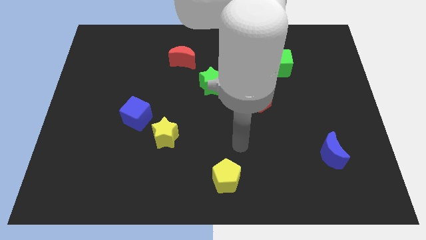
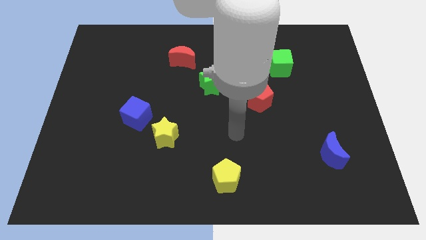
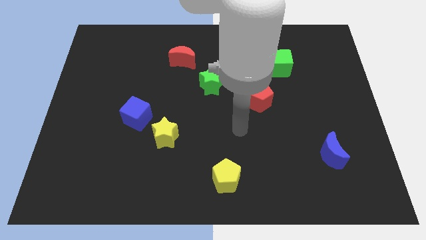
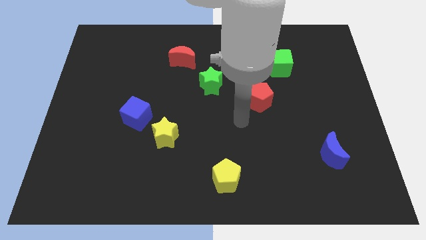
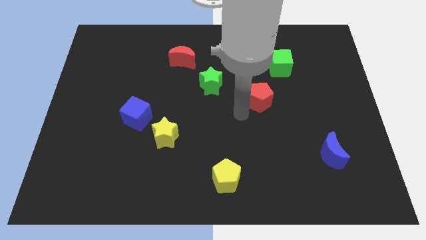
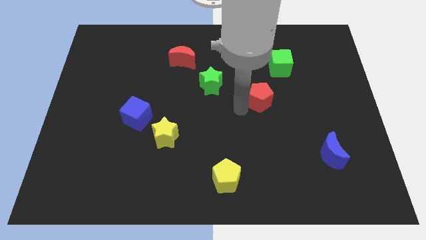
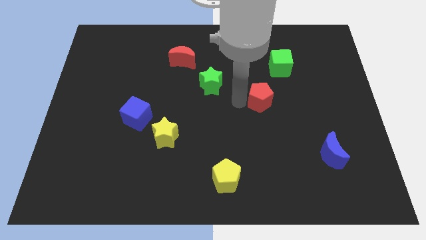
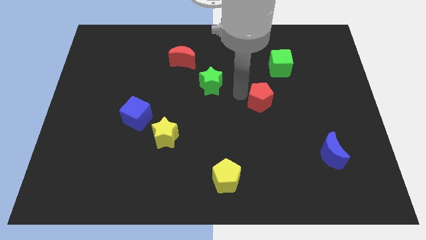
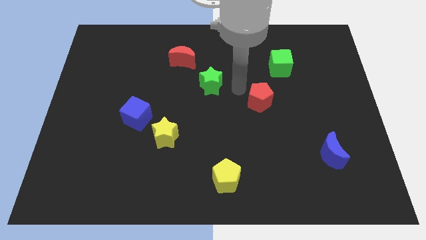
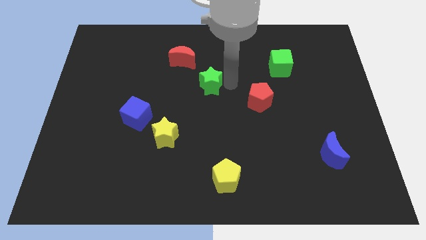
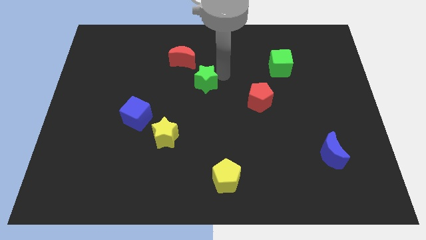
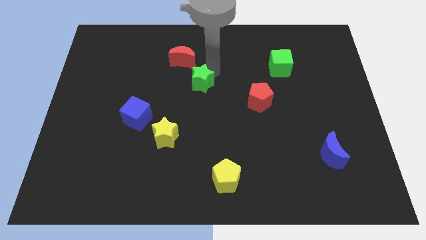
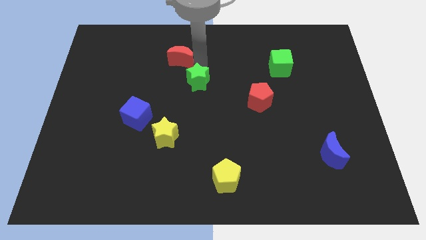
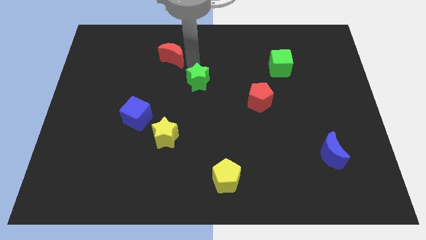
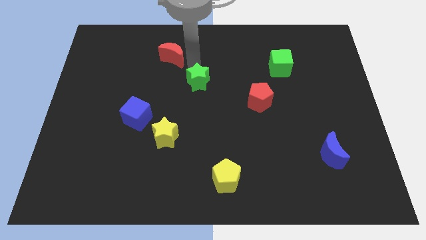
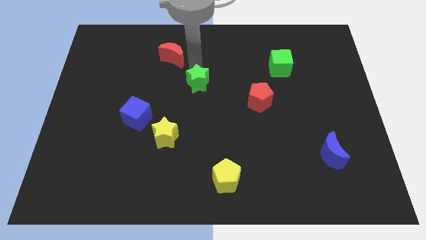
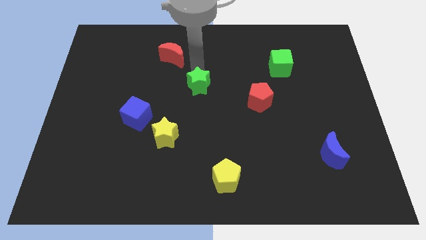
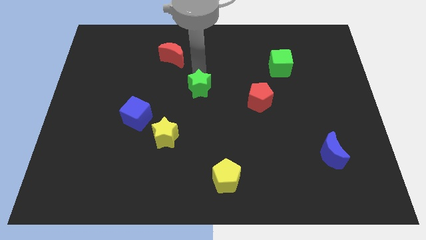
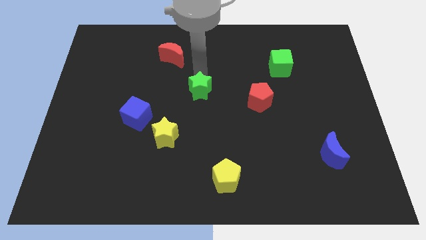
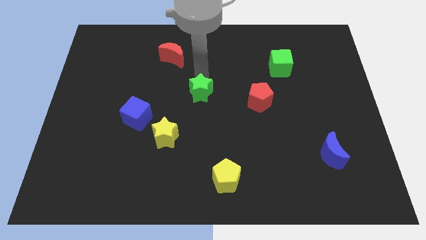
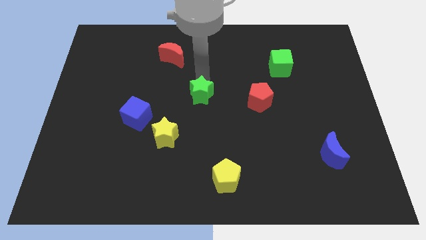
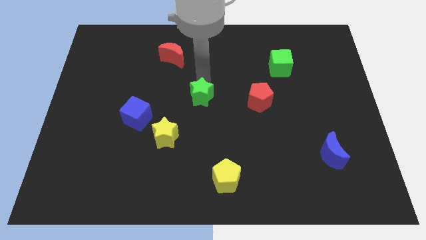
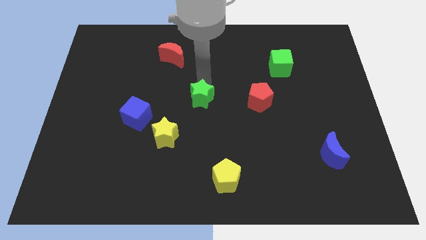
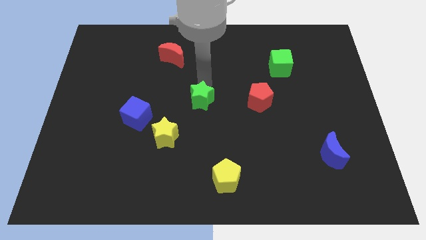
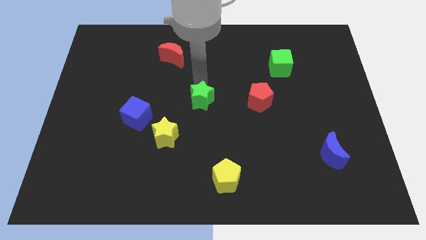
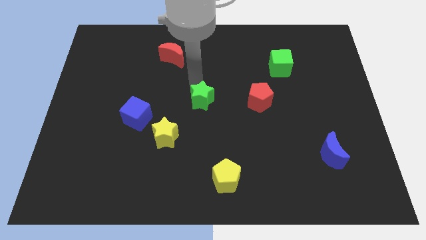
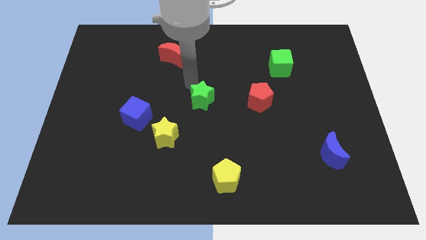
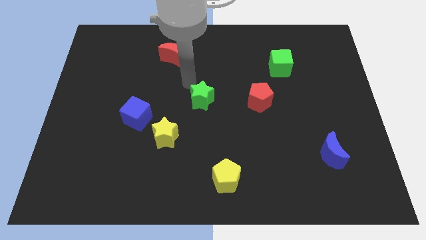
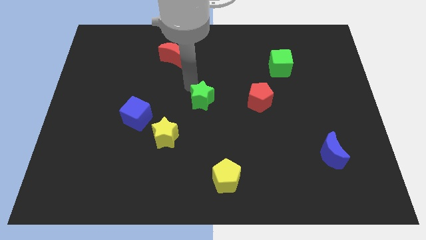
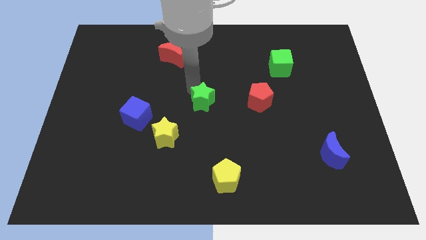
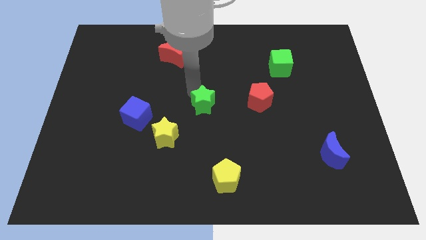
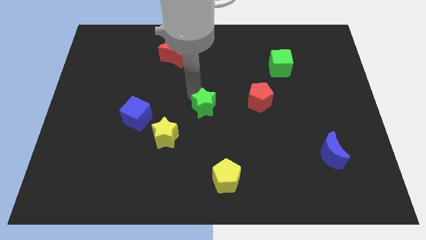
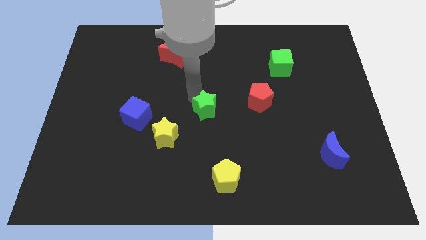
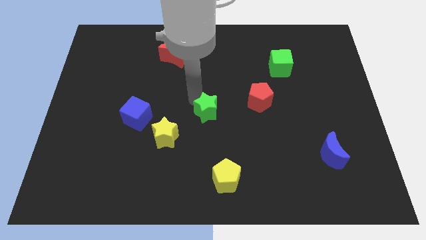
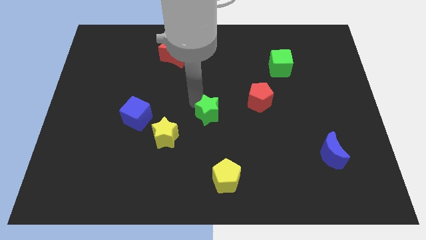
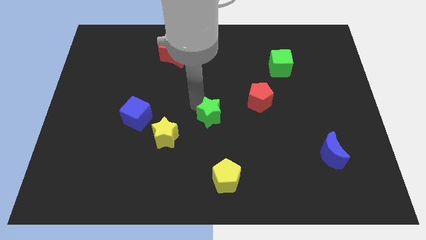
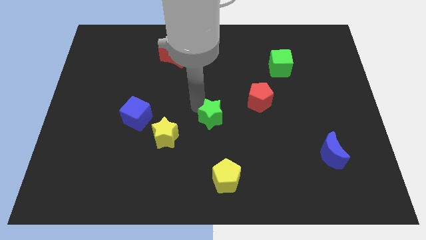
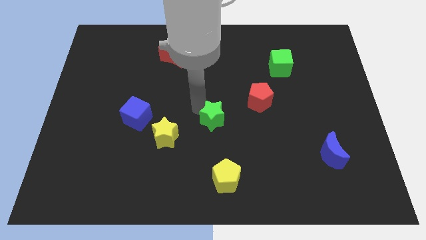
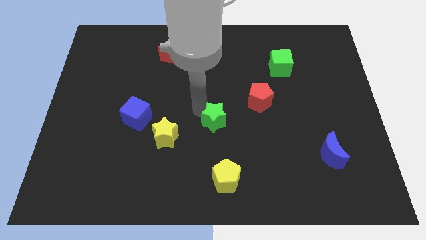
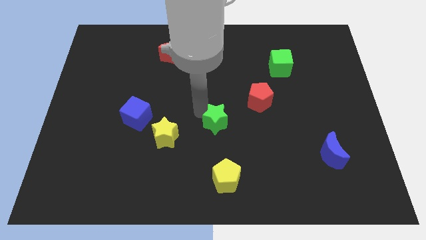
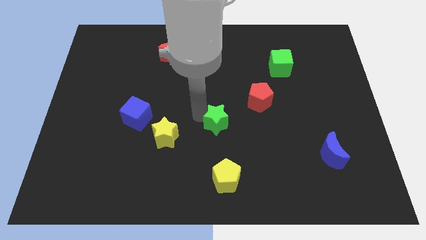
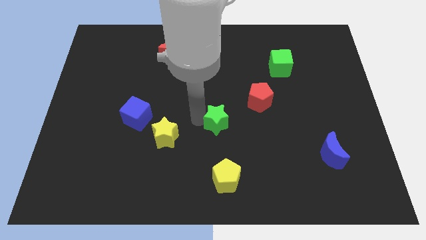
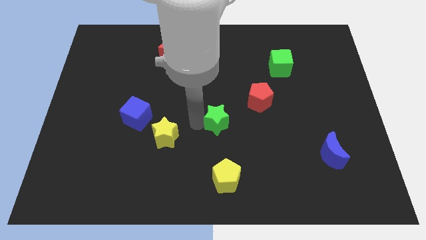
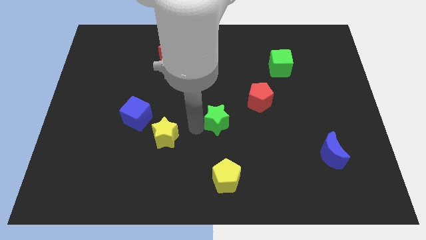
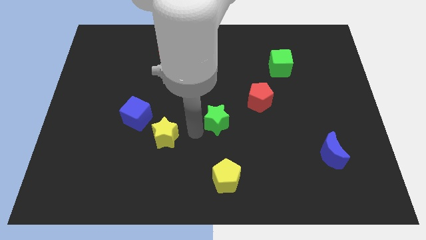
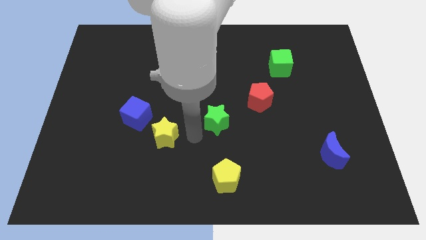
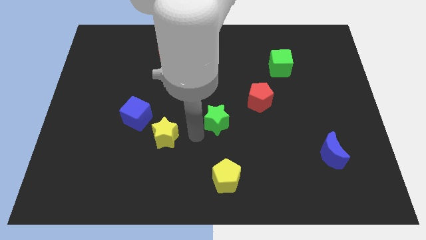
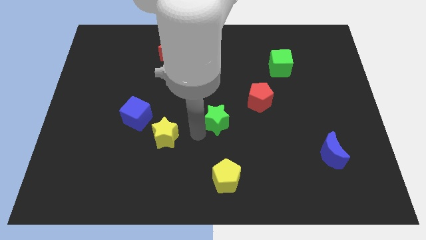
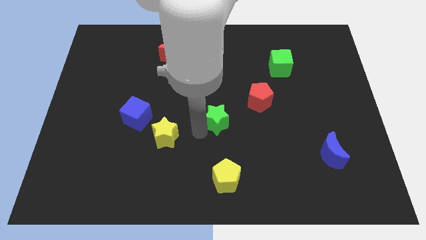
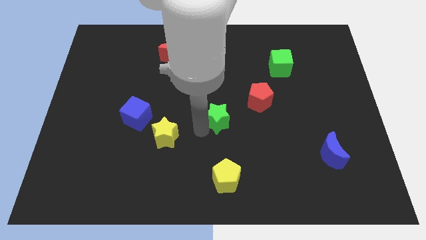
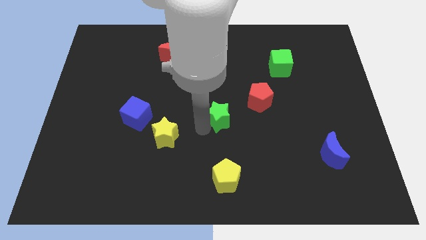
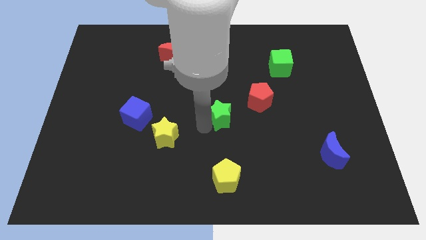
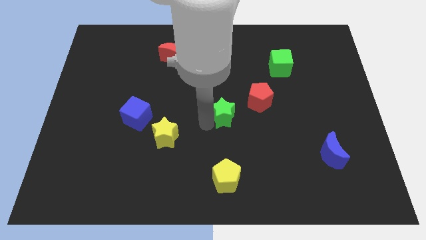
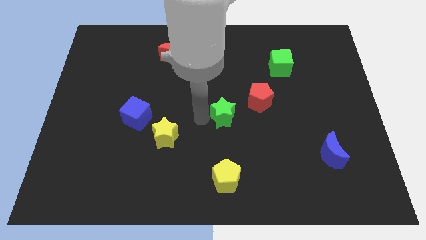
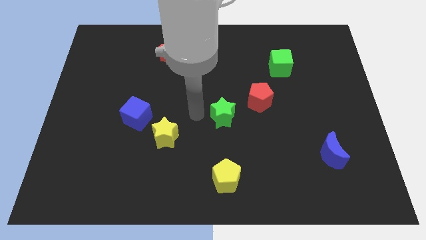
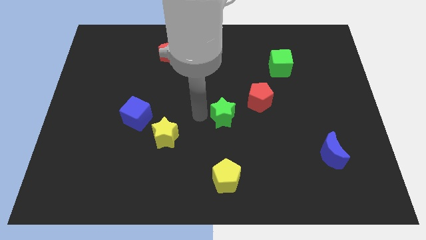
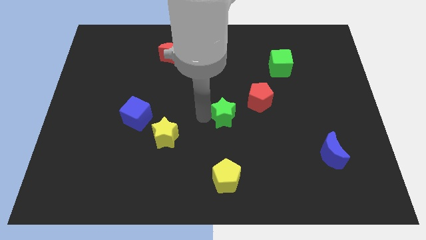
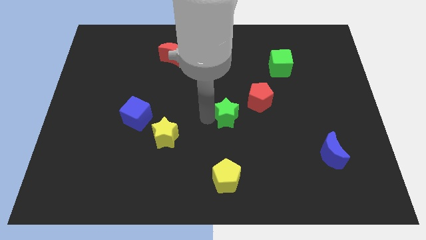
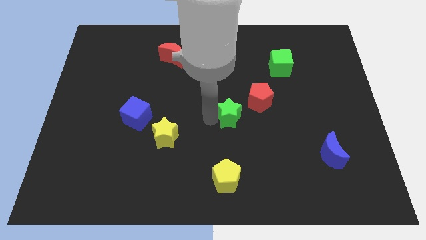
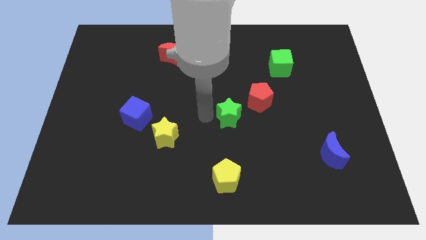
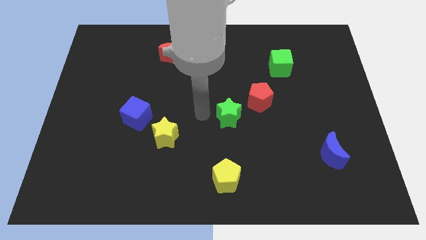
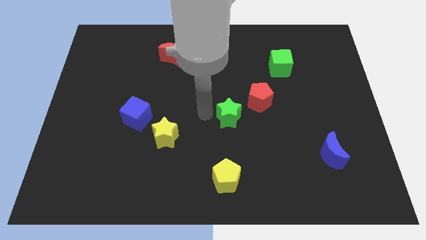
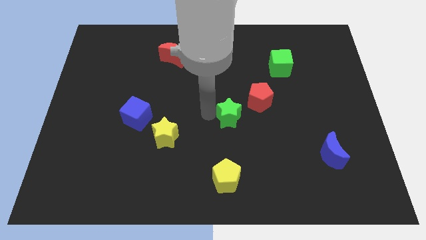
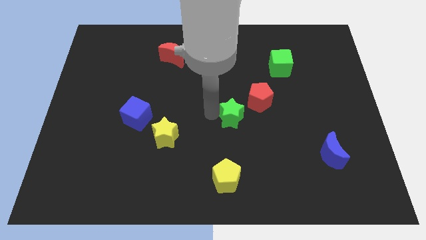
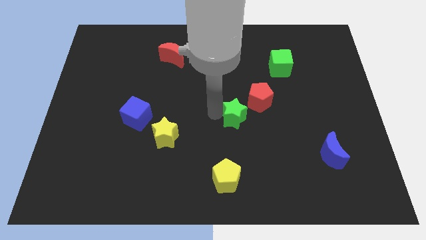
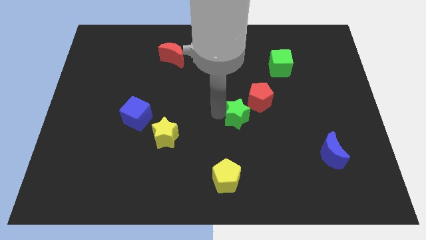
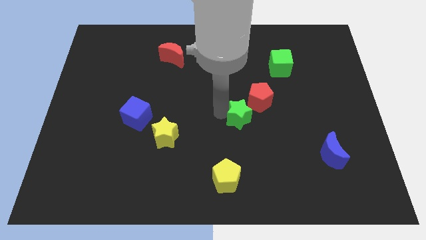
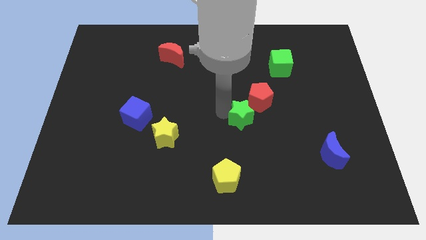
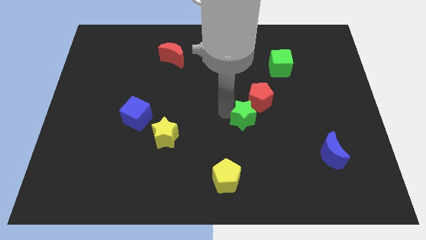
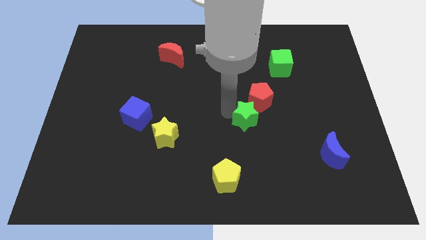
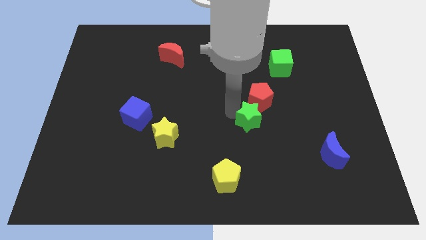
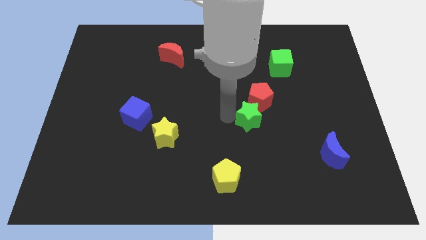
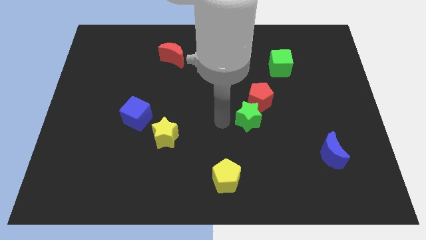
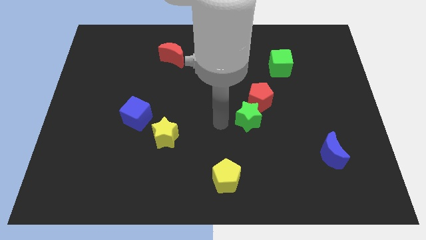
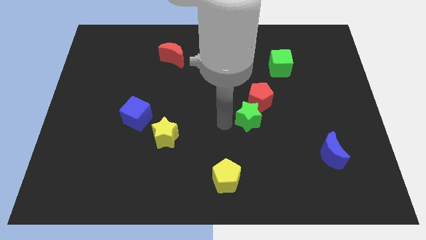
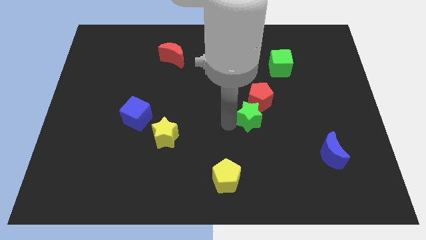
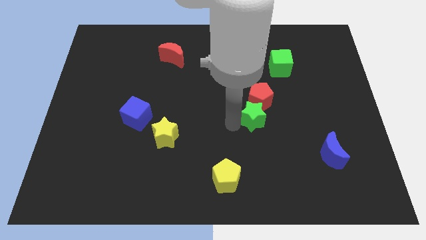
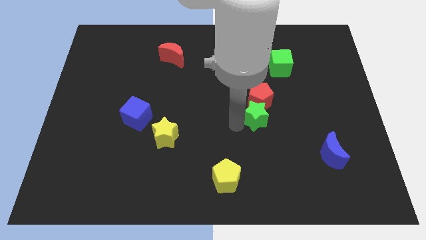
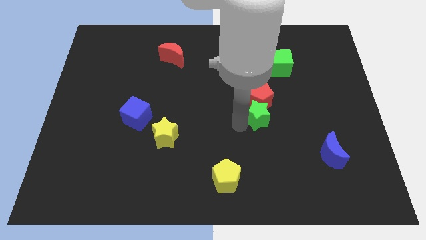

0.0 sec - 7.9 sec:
slide the green star diagonally down and to the right of the red pentagon
